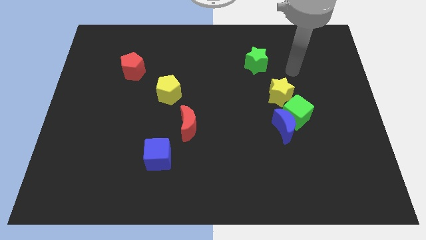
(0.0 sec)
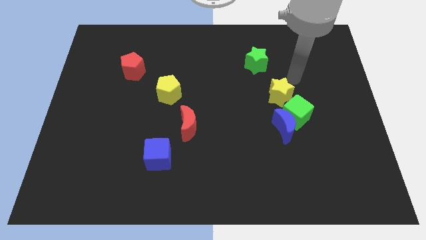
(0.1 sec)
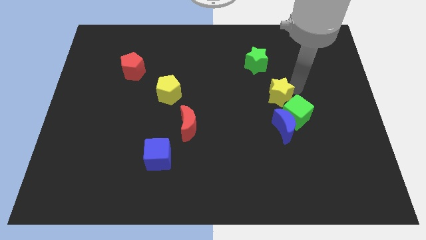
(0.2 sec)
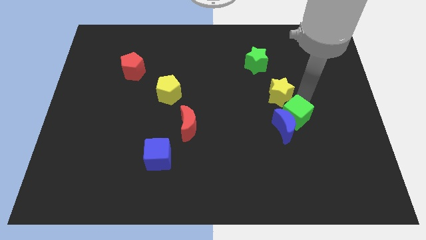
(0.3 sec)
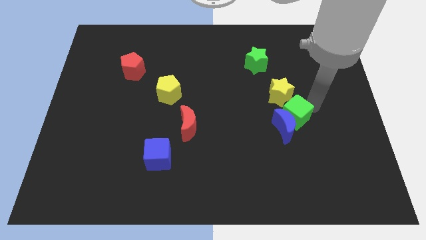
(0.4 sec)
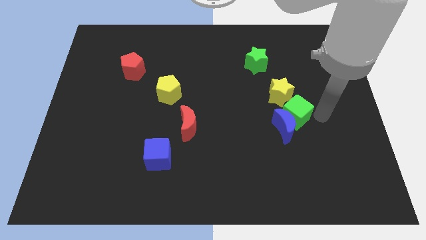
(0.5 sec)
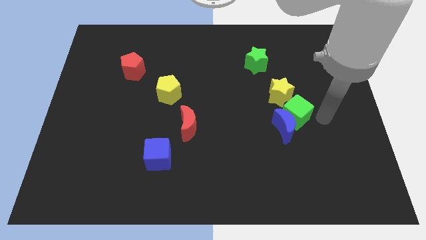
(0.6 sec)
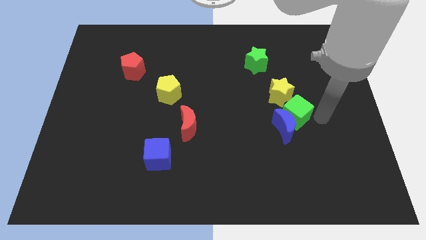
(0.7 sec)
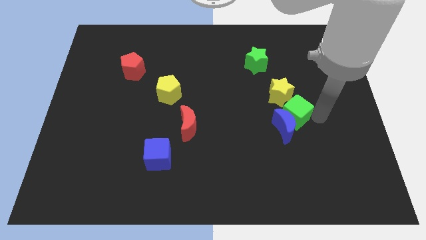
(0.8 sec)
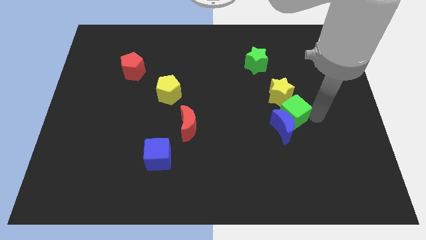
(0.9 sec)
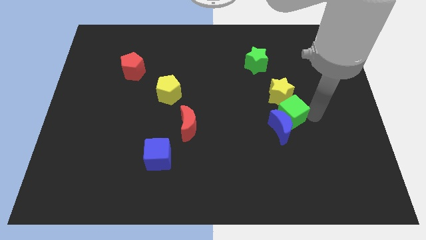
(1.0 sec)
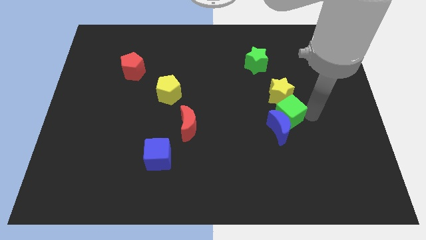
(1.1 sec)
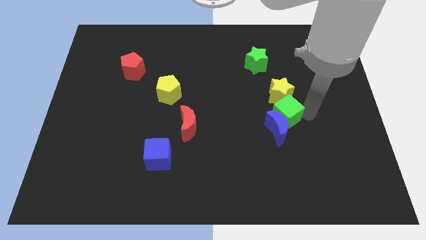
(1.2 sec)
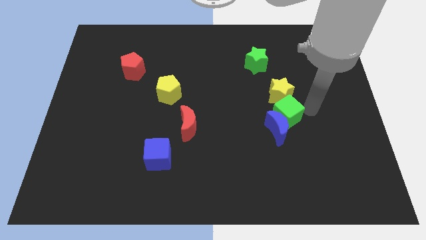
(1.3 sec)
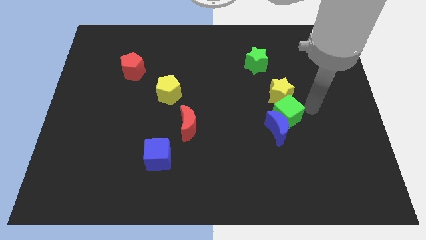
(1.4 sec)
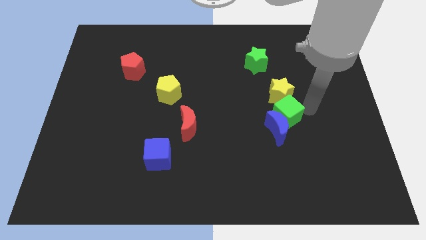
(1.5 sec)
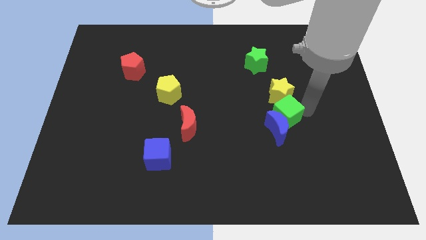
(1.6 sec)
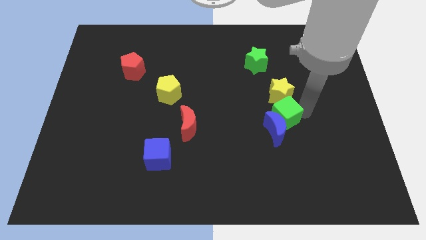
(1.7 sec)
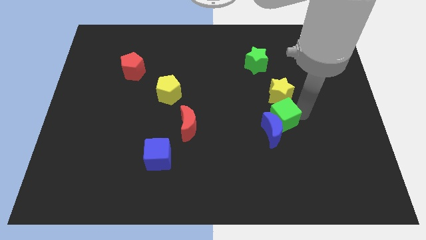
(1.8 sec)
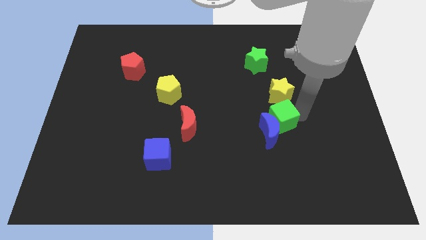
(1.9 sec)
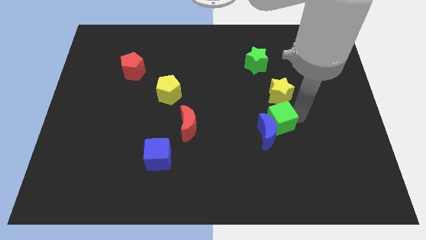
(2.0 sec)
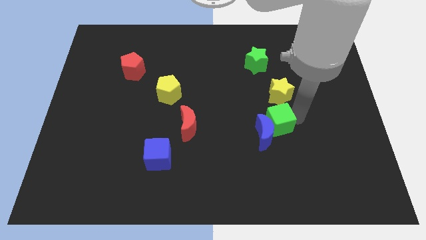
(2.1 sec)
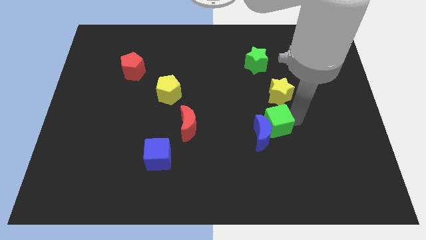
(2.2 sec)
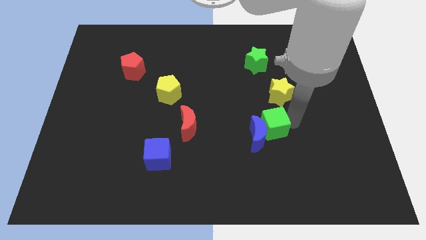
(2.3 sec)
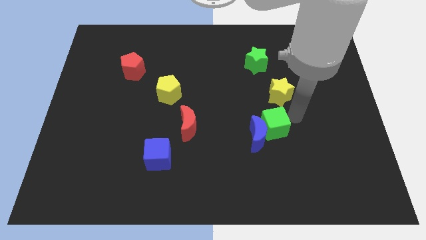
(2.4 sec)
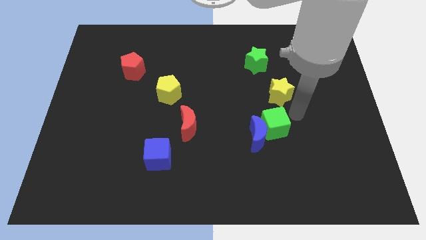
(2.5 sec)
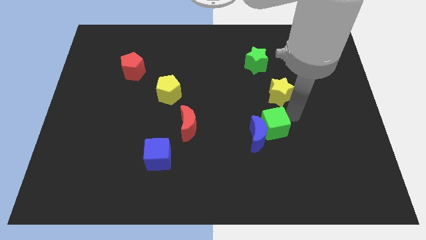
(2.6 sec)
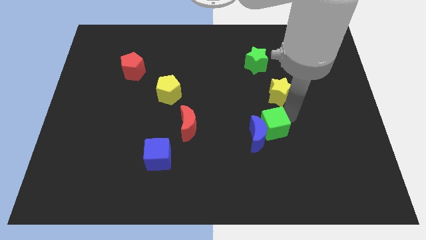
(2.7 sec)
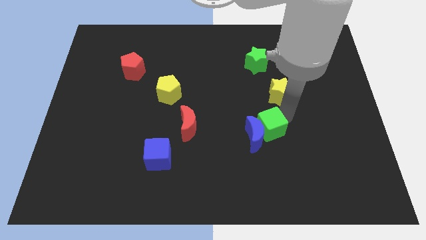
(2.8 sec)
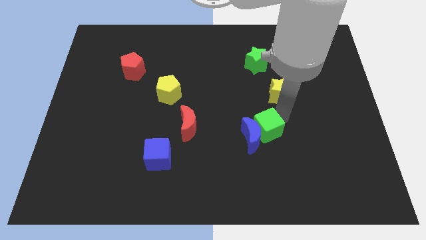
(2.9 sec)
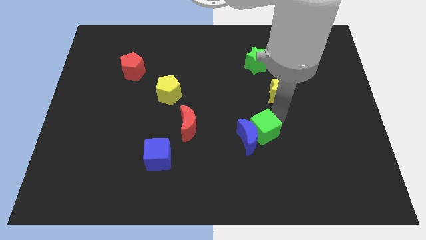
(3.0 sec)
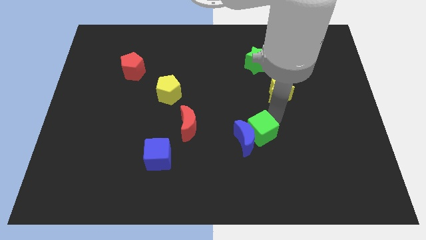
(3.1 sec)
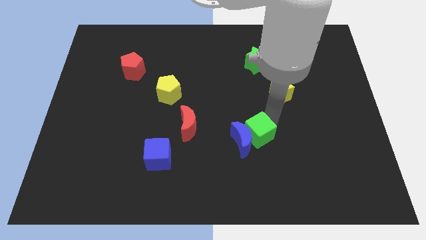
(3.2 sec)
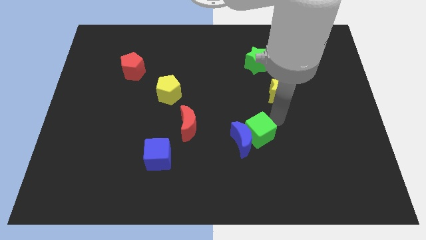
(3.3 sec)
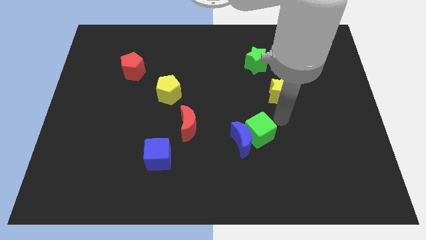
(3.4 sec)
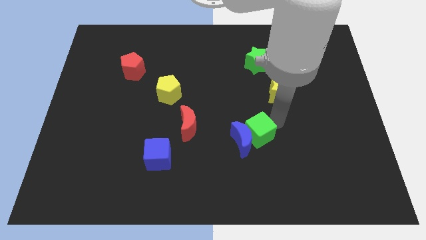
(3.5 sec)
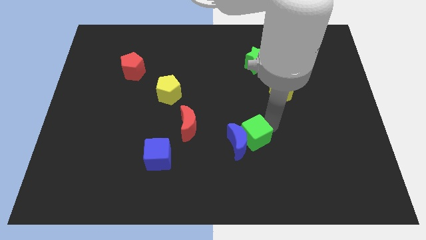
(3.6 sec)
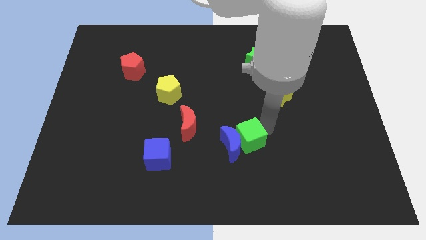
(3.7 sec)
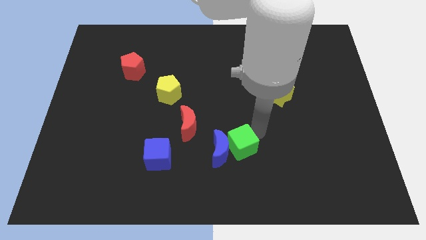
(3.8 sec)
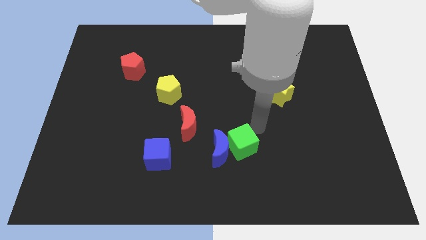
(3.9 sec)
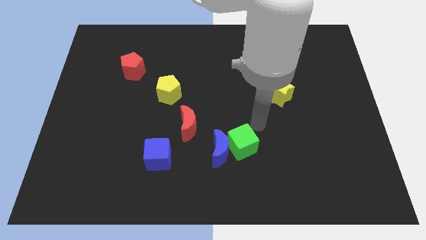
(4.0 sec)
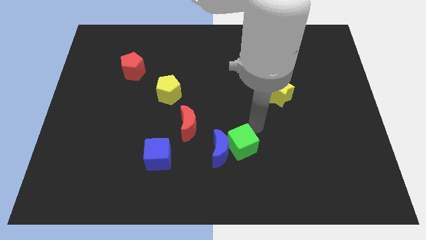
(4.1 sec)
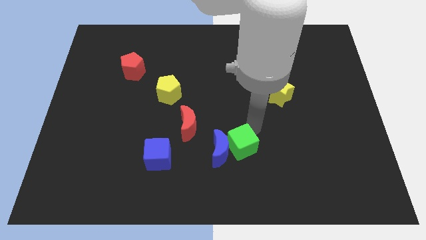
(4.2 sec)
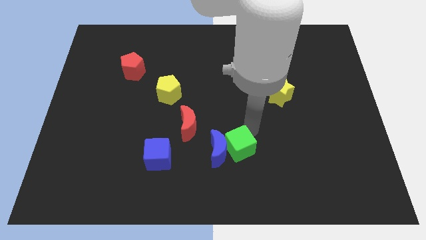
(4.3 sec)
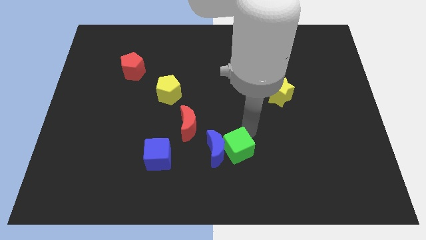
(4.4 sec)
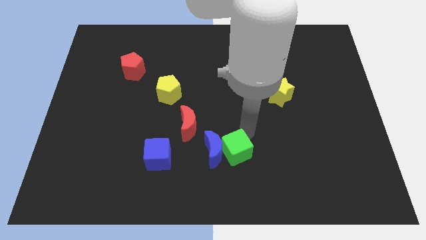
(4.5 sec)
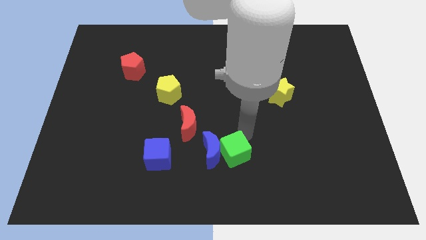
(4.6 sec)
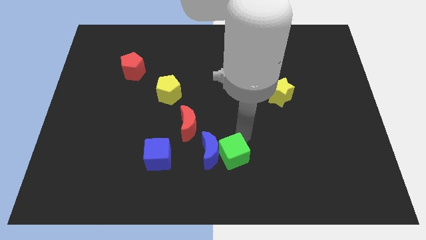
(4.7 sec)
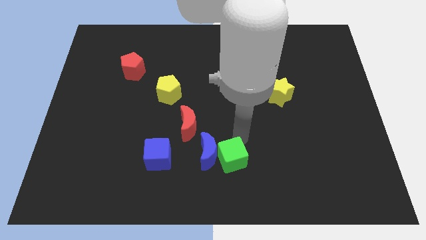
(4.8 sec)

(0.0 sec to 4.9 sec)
slide the green cube to the bottom

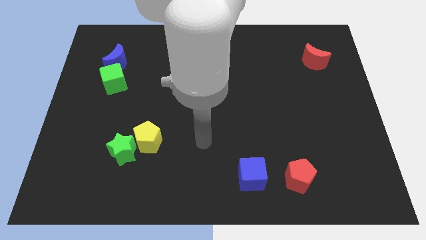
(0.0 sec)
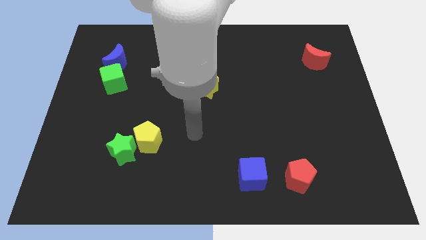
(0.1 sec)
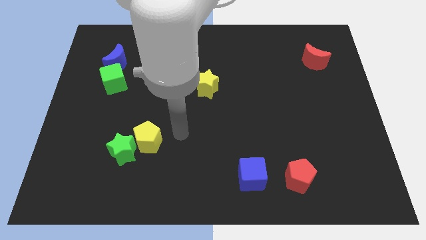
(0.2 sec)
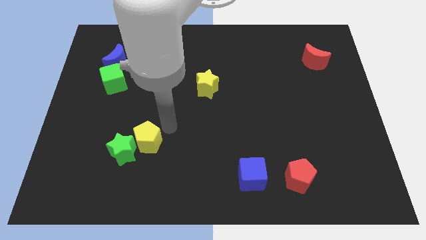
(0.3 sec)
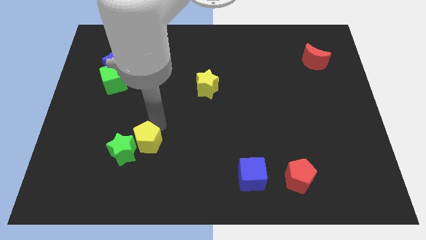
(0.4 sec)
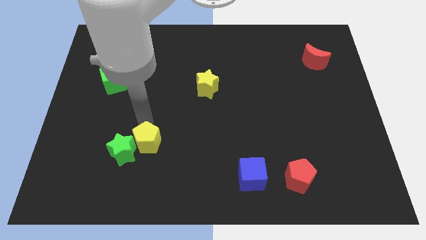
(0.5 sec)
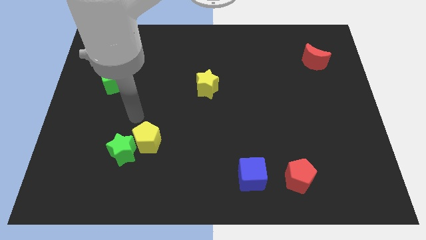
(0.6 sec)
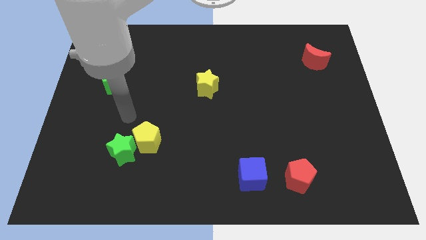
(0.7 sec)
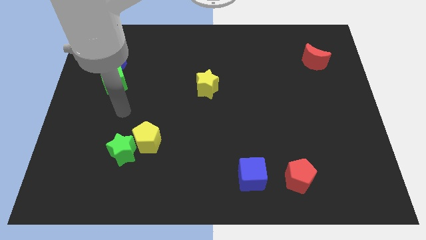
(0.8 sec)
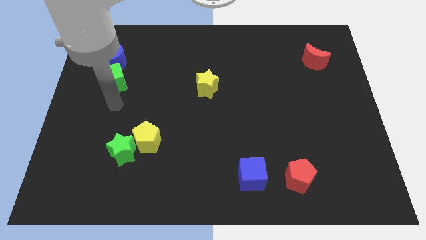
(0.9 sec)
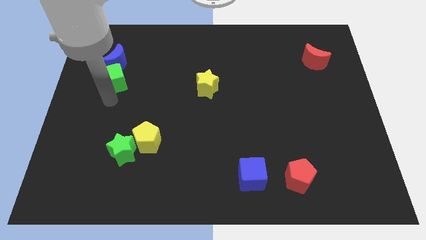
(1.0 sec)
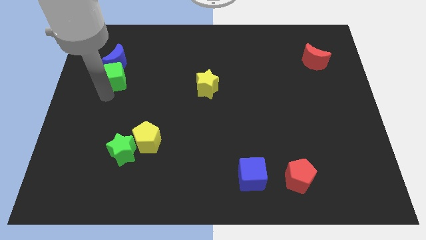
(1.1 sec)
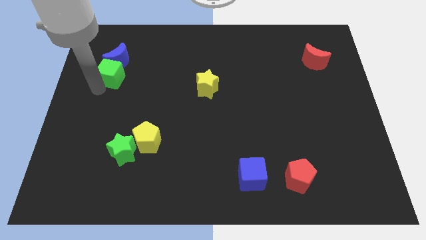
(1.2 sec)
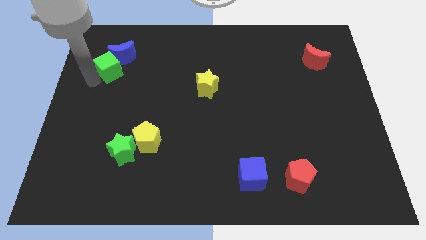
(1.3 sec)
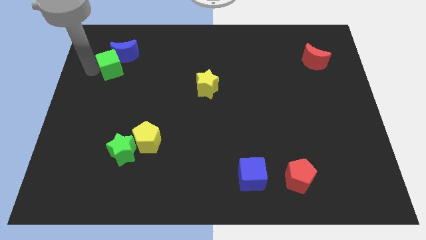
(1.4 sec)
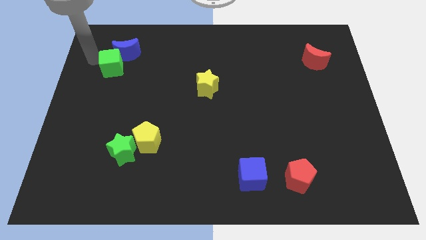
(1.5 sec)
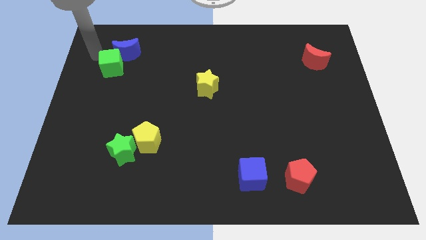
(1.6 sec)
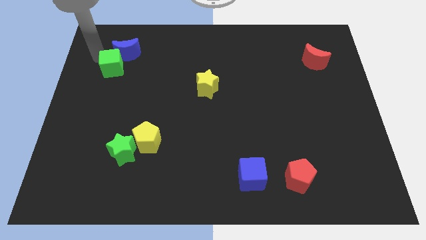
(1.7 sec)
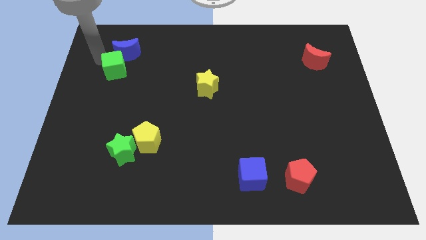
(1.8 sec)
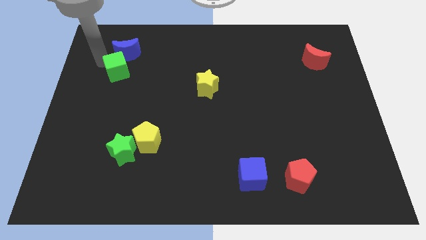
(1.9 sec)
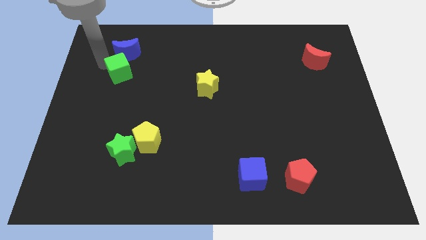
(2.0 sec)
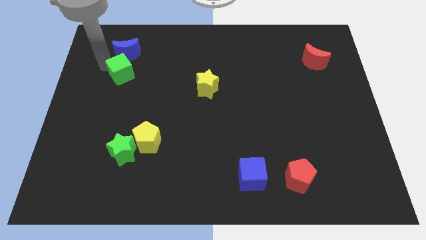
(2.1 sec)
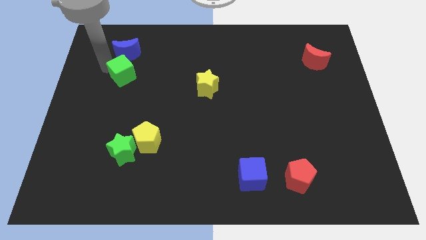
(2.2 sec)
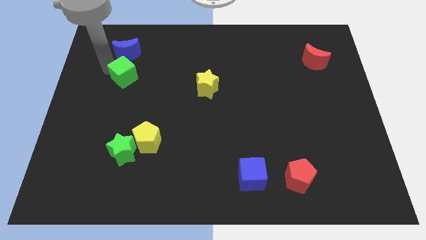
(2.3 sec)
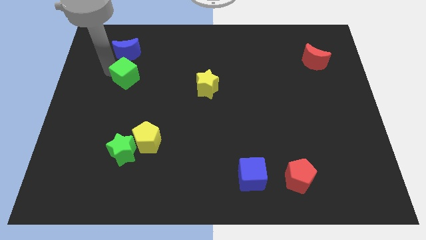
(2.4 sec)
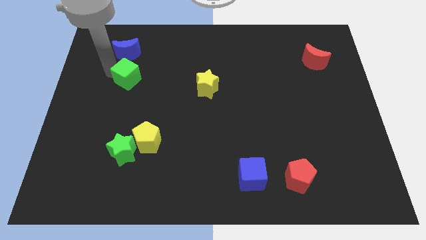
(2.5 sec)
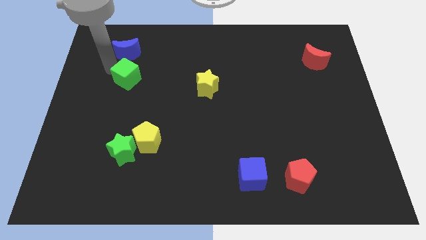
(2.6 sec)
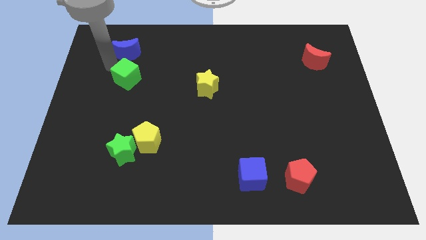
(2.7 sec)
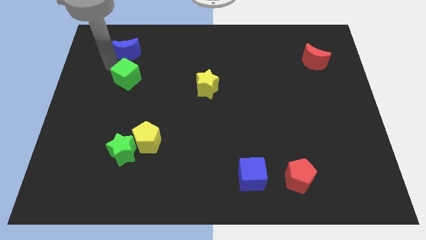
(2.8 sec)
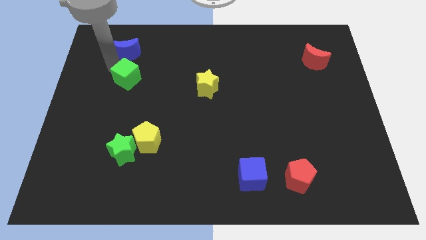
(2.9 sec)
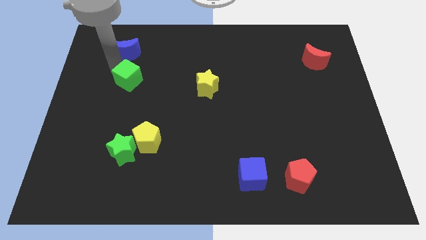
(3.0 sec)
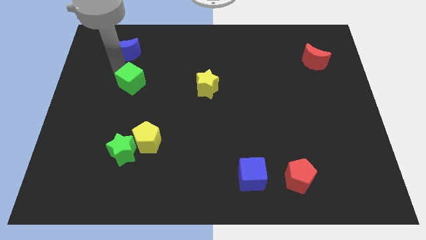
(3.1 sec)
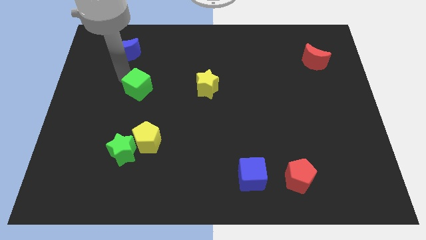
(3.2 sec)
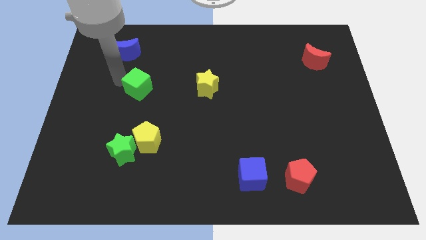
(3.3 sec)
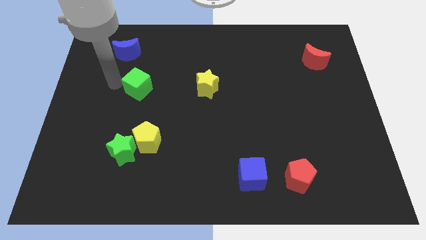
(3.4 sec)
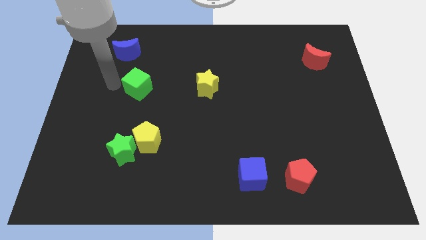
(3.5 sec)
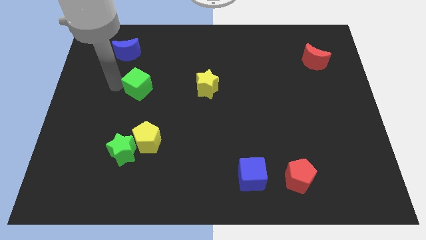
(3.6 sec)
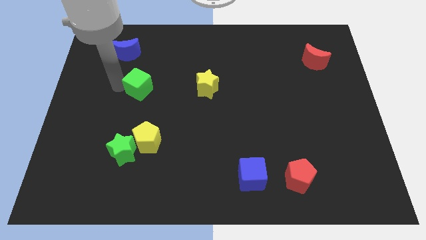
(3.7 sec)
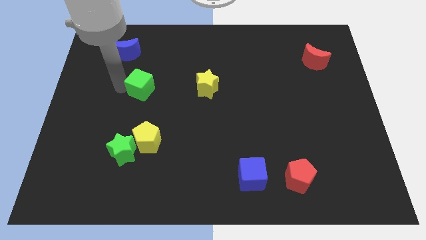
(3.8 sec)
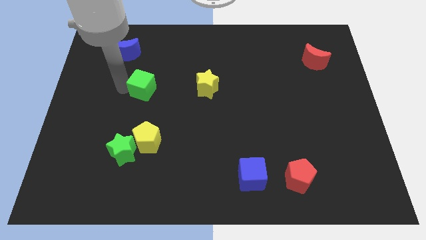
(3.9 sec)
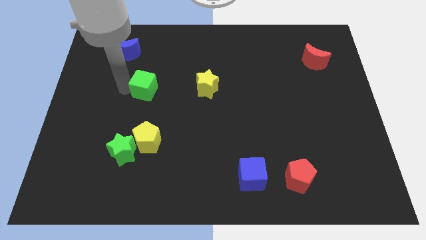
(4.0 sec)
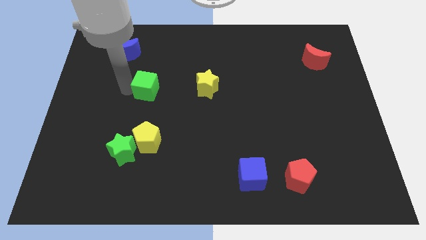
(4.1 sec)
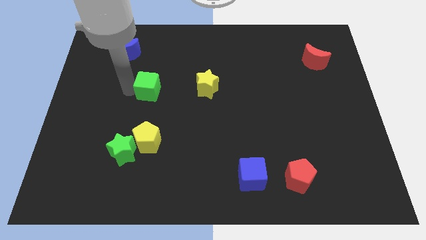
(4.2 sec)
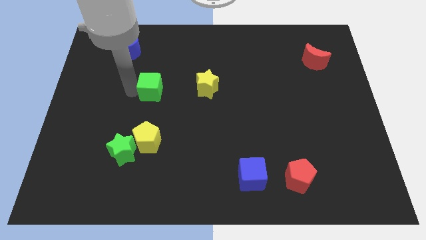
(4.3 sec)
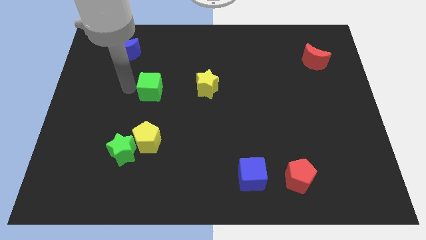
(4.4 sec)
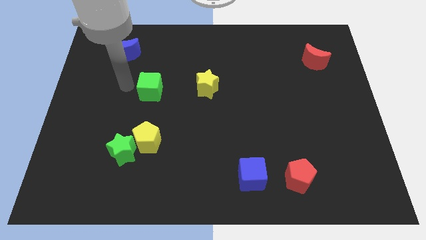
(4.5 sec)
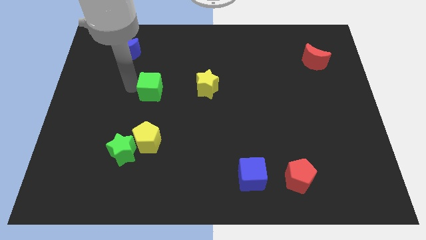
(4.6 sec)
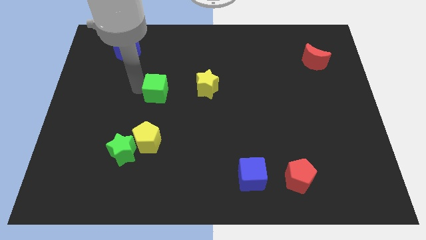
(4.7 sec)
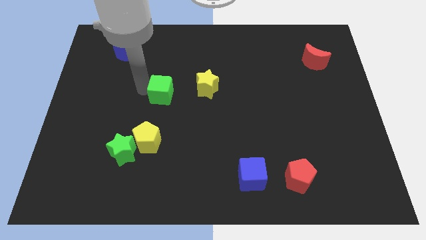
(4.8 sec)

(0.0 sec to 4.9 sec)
slide the green cube to the middle of the board
